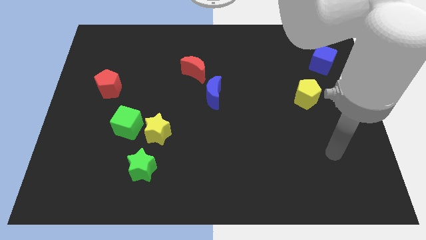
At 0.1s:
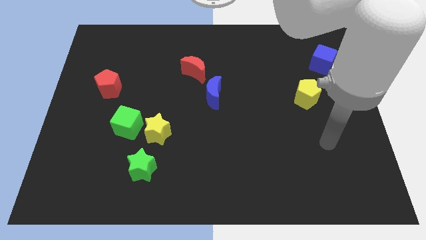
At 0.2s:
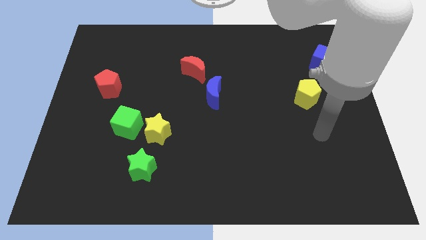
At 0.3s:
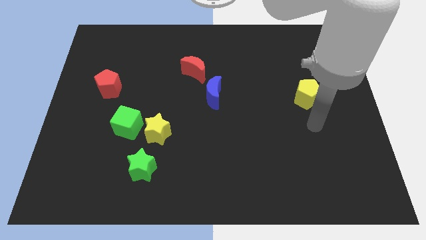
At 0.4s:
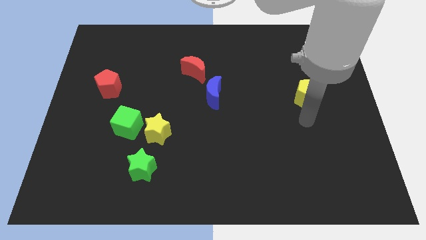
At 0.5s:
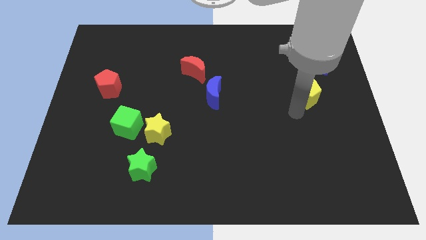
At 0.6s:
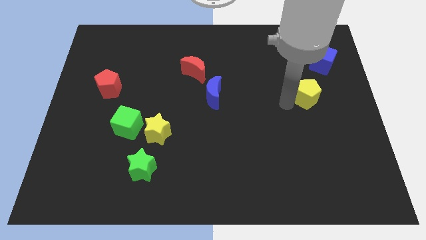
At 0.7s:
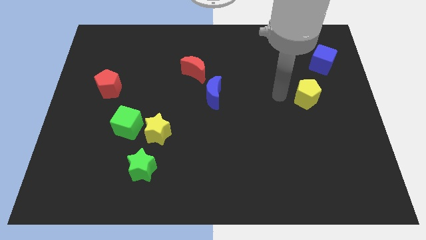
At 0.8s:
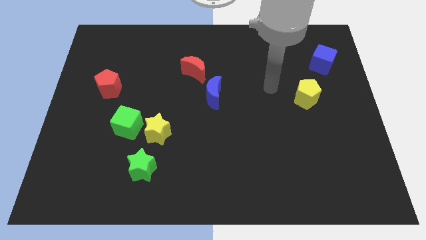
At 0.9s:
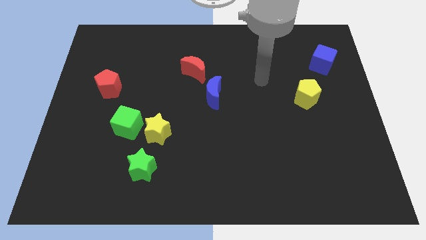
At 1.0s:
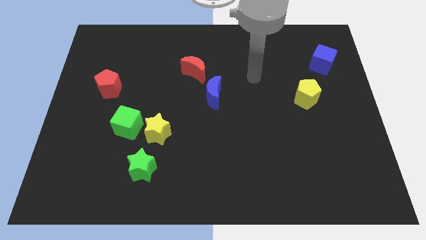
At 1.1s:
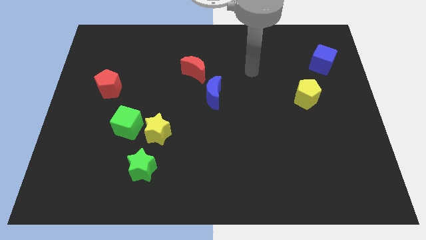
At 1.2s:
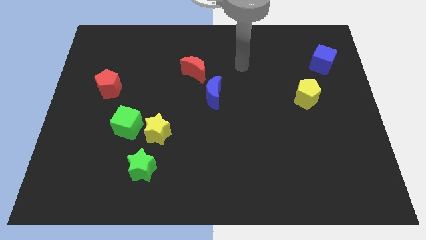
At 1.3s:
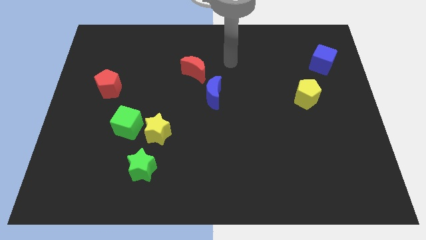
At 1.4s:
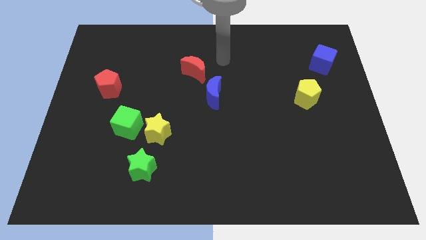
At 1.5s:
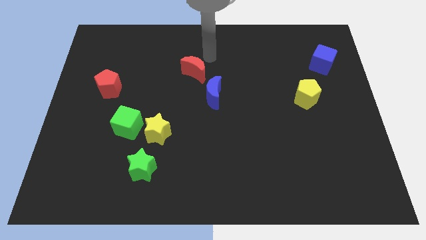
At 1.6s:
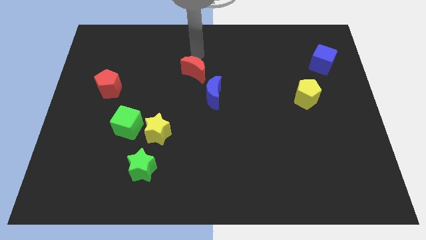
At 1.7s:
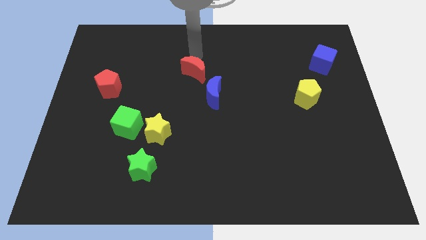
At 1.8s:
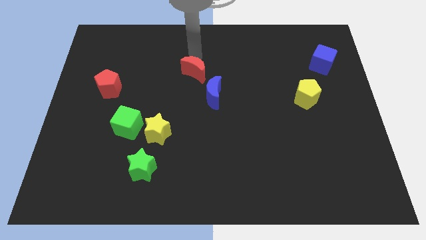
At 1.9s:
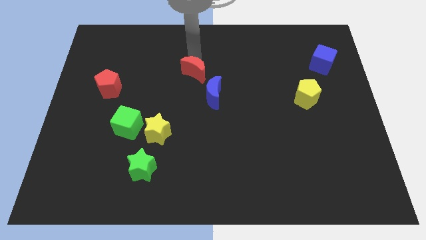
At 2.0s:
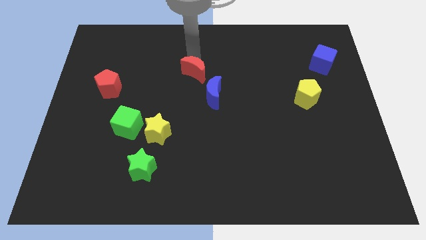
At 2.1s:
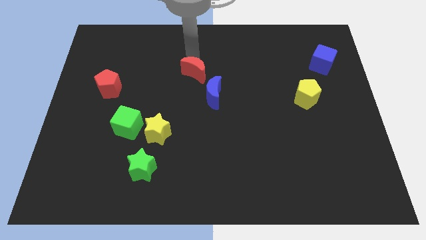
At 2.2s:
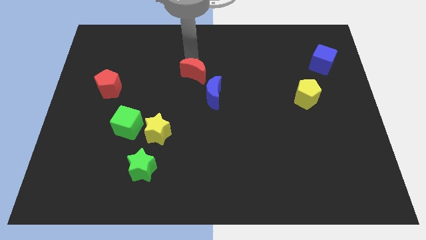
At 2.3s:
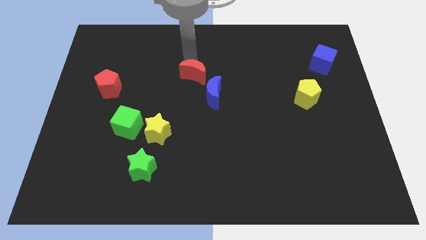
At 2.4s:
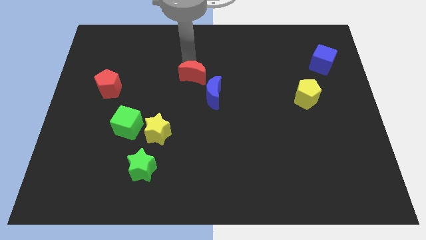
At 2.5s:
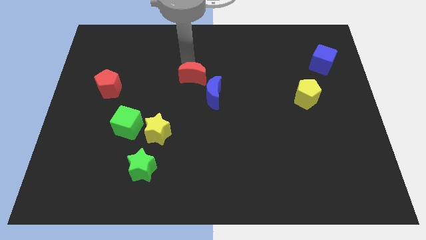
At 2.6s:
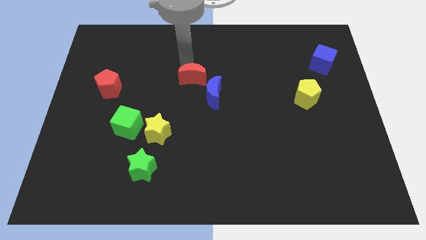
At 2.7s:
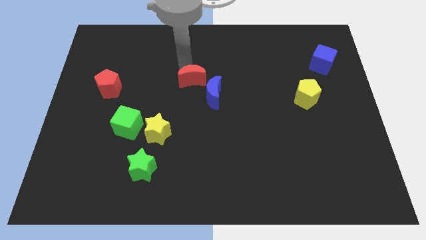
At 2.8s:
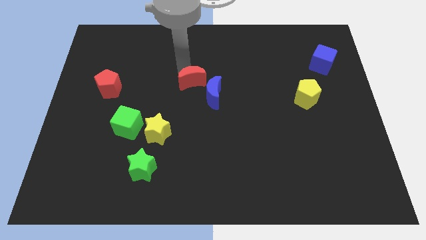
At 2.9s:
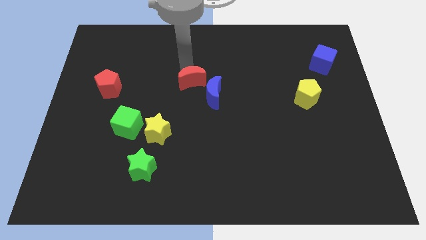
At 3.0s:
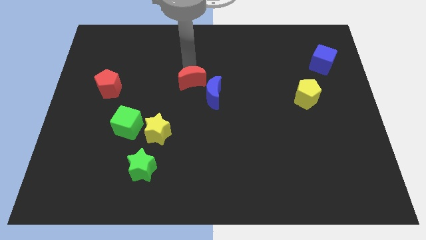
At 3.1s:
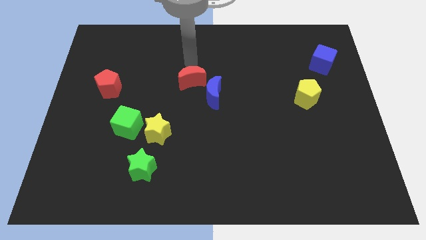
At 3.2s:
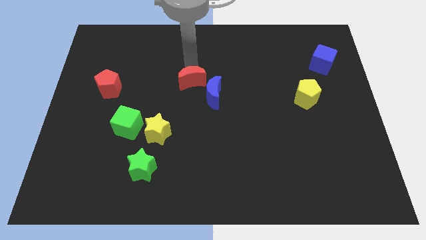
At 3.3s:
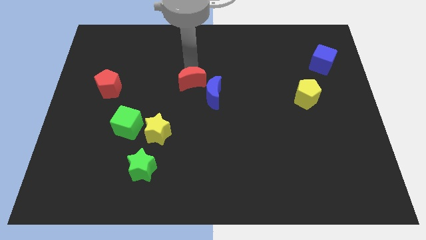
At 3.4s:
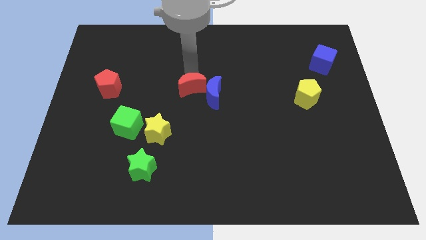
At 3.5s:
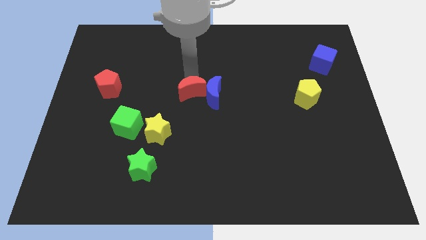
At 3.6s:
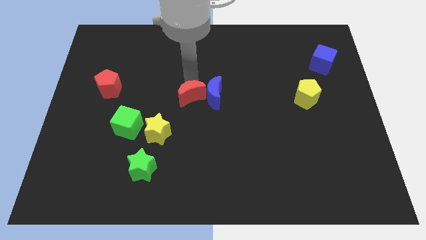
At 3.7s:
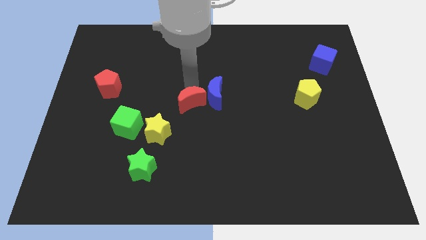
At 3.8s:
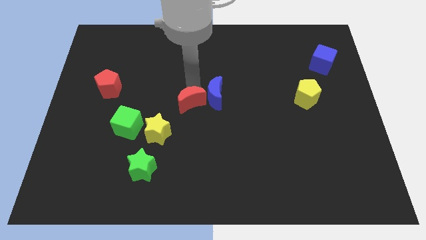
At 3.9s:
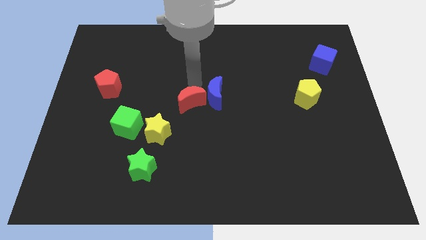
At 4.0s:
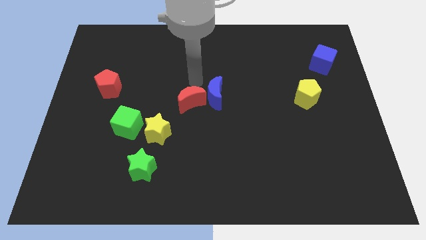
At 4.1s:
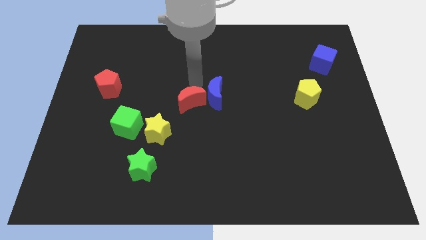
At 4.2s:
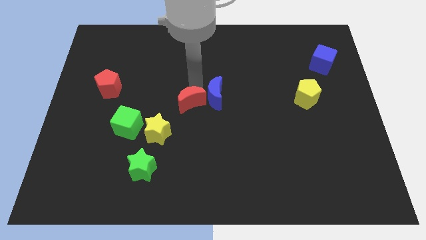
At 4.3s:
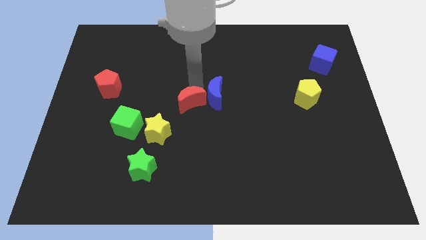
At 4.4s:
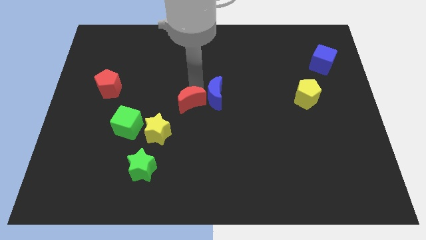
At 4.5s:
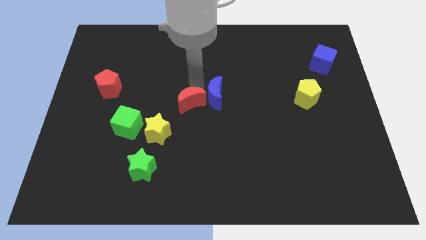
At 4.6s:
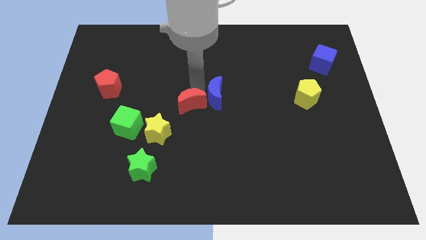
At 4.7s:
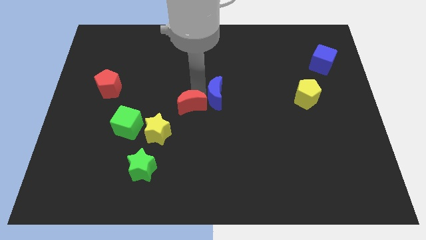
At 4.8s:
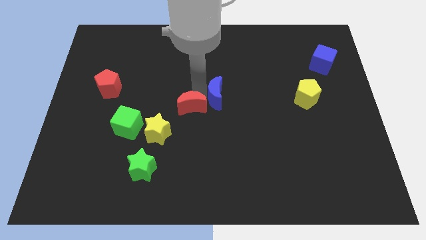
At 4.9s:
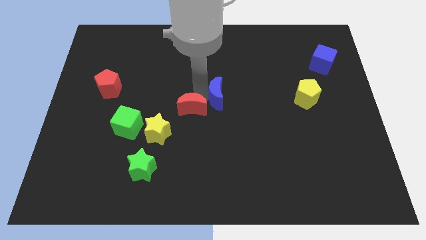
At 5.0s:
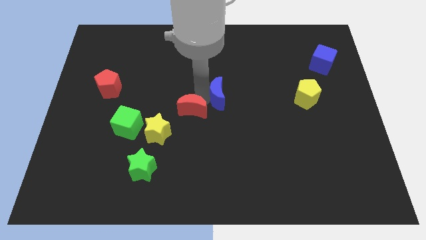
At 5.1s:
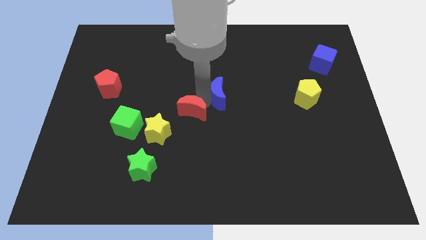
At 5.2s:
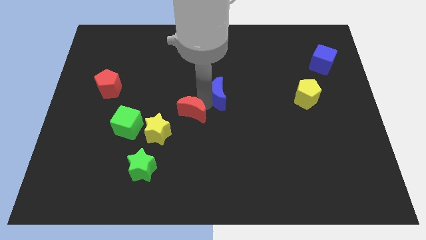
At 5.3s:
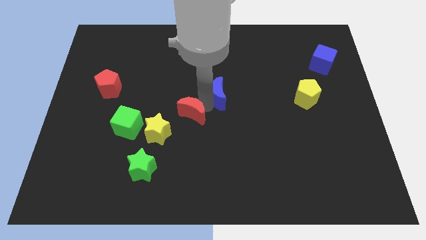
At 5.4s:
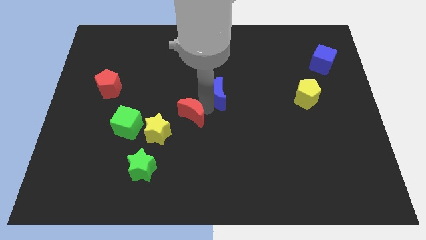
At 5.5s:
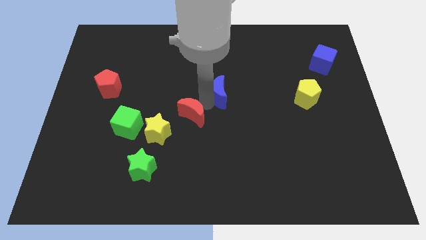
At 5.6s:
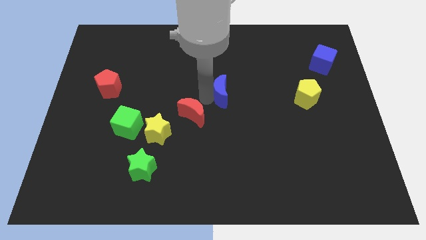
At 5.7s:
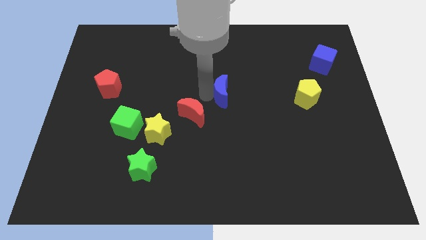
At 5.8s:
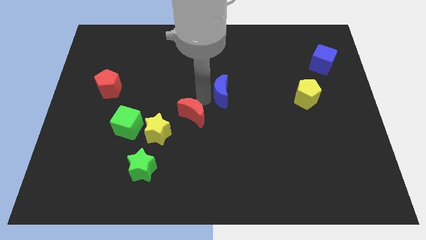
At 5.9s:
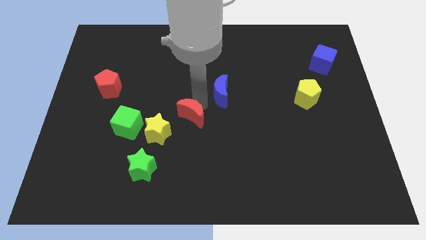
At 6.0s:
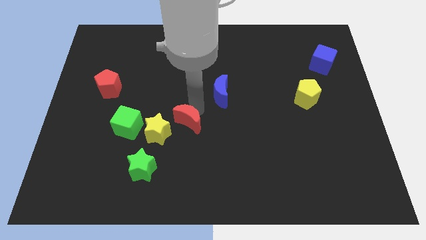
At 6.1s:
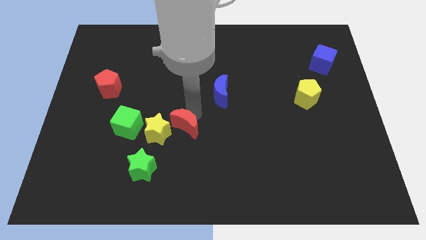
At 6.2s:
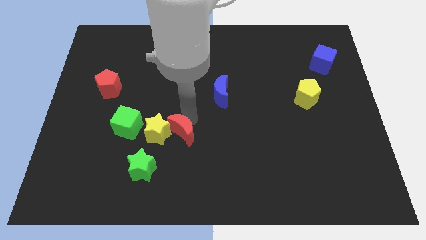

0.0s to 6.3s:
put the red moon diagonally down and to the right of the yellow star
